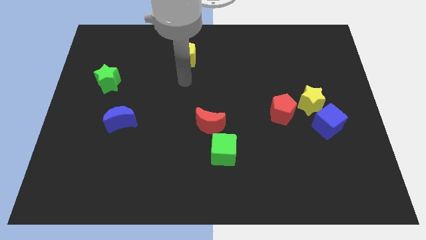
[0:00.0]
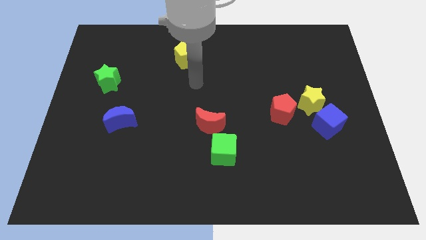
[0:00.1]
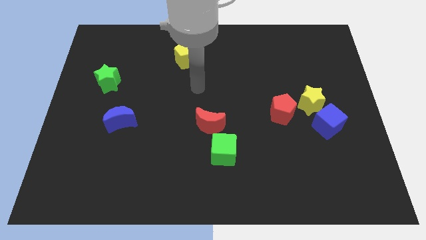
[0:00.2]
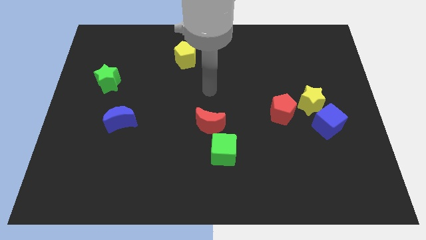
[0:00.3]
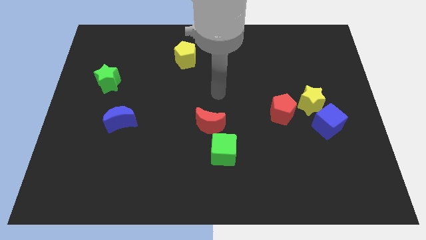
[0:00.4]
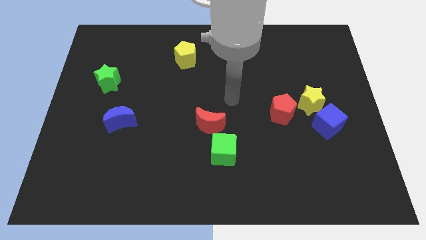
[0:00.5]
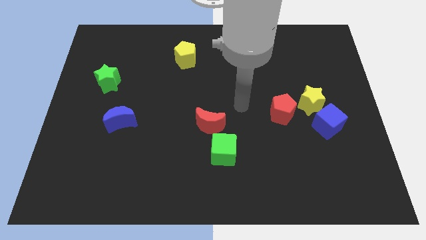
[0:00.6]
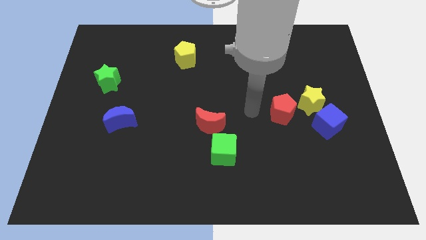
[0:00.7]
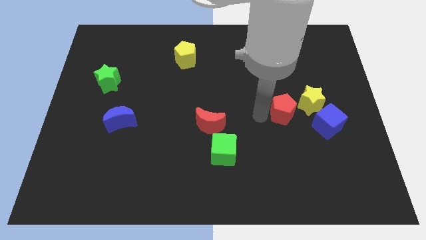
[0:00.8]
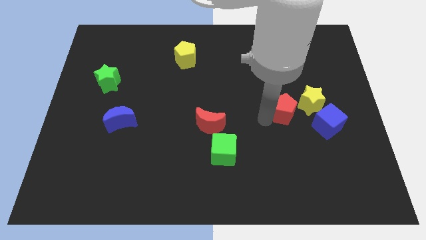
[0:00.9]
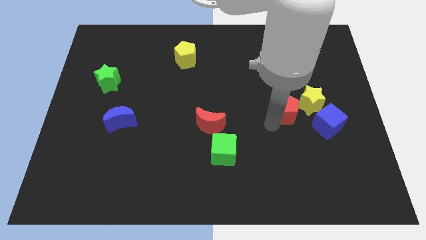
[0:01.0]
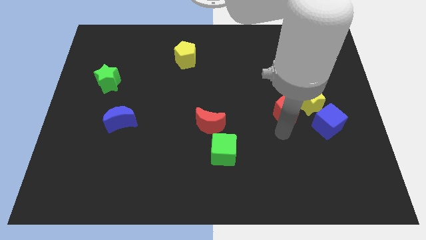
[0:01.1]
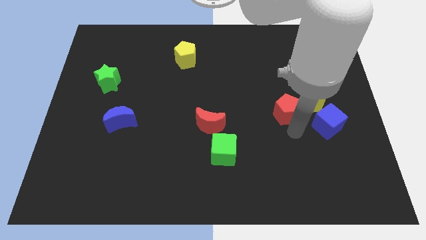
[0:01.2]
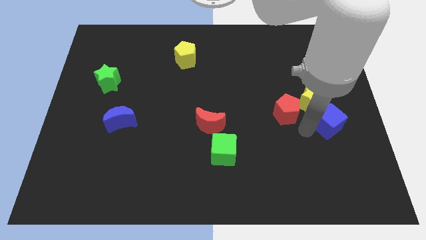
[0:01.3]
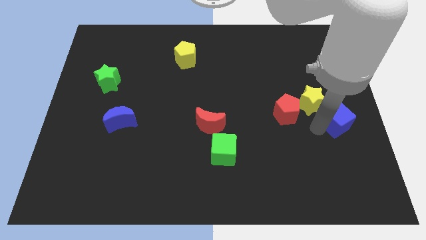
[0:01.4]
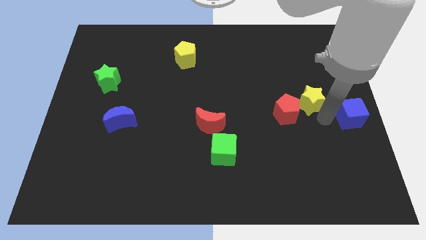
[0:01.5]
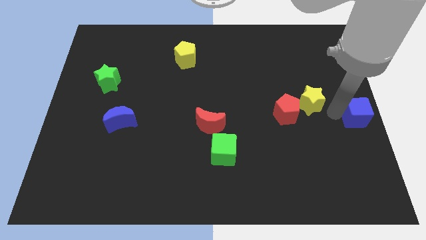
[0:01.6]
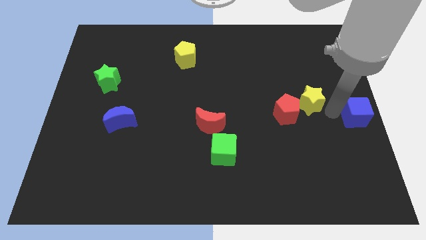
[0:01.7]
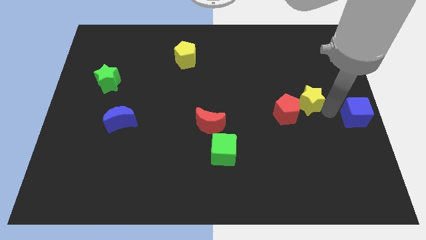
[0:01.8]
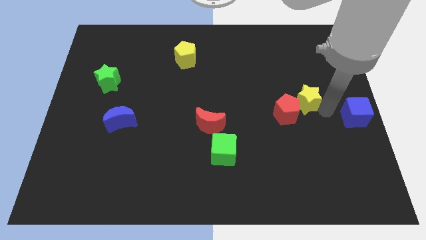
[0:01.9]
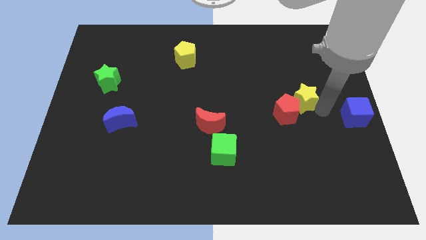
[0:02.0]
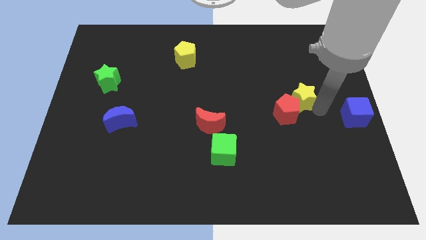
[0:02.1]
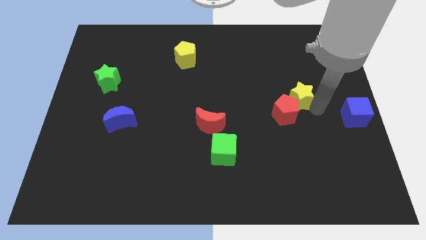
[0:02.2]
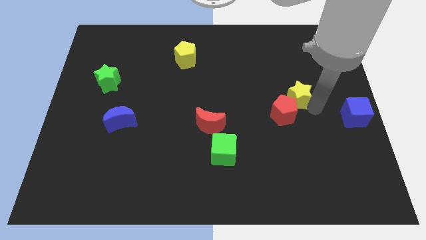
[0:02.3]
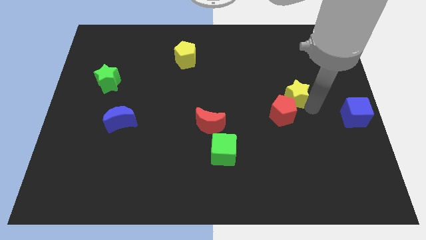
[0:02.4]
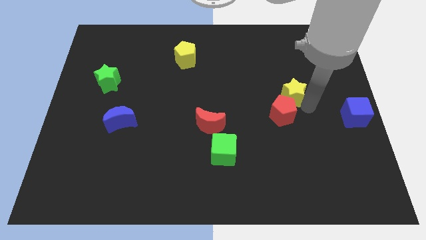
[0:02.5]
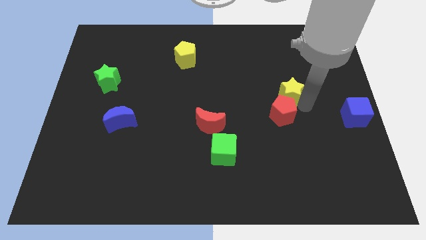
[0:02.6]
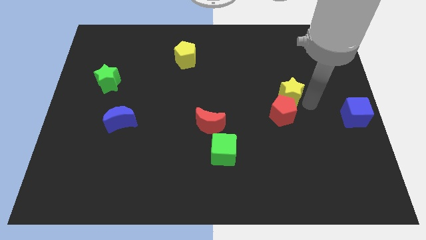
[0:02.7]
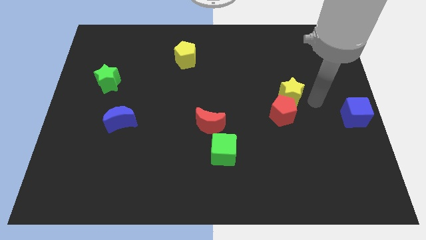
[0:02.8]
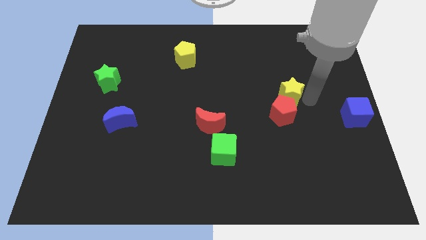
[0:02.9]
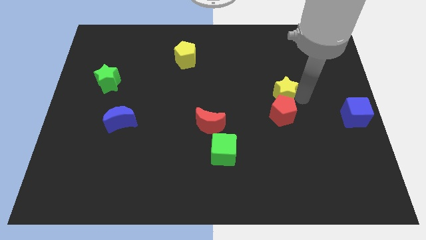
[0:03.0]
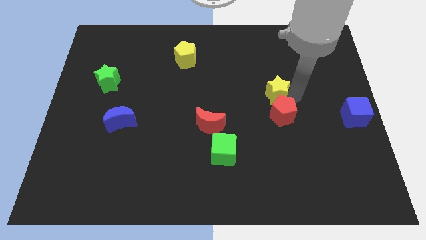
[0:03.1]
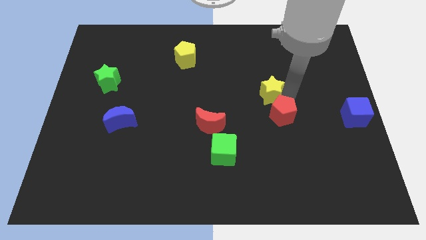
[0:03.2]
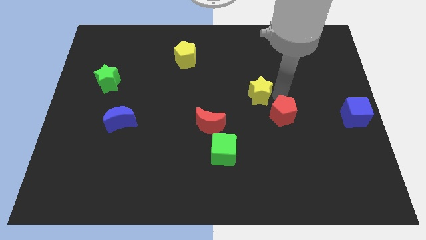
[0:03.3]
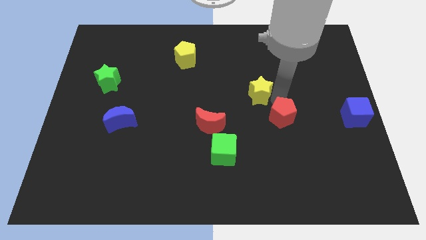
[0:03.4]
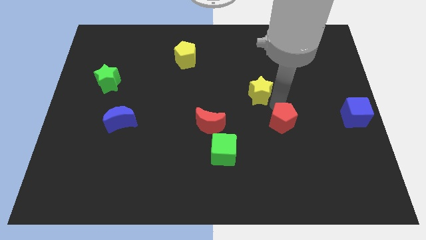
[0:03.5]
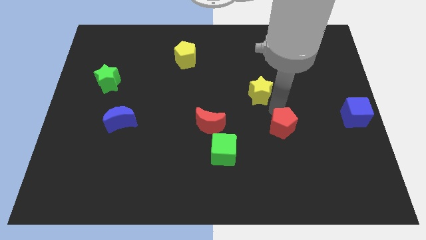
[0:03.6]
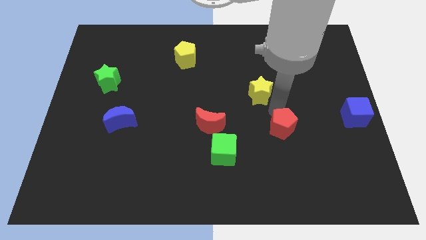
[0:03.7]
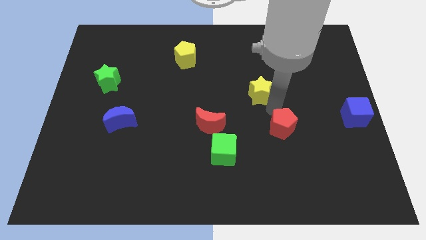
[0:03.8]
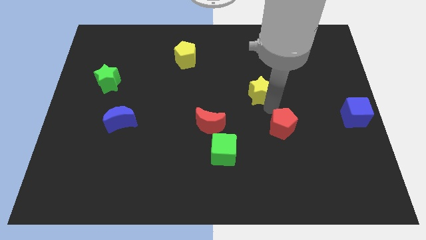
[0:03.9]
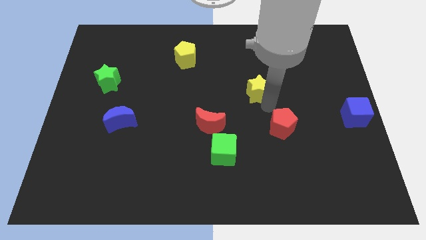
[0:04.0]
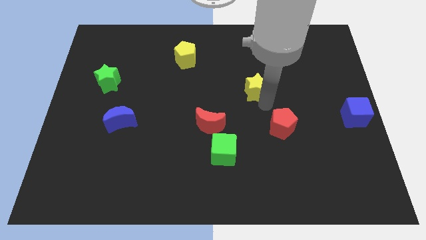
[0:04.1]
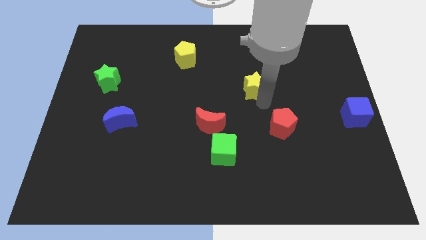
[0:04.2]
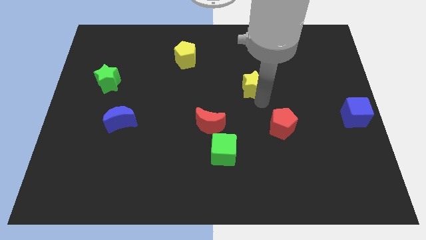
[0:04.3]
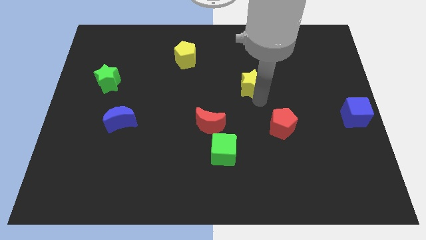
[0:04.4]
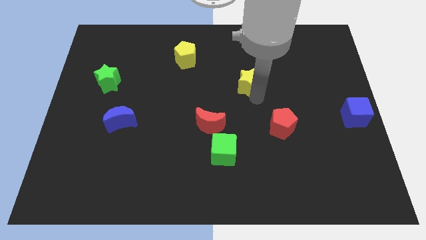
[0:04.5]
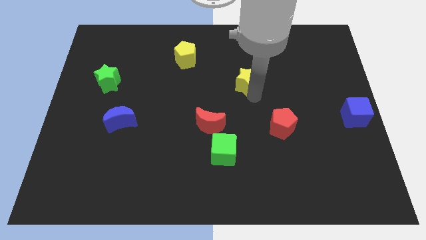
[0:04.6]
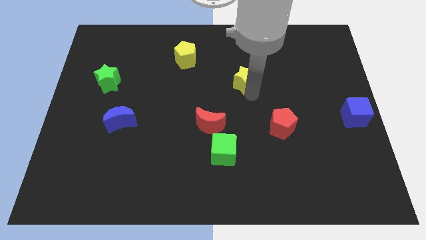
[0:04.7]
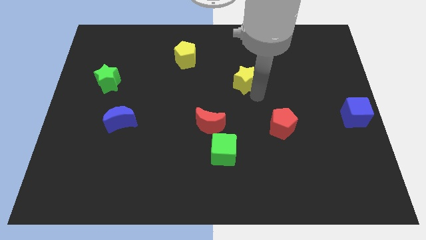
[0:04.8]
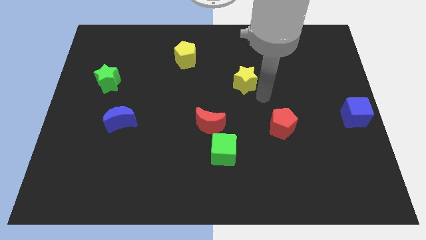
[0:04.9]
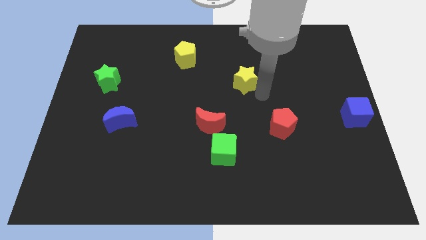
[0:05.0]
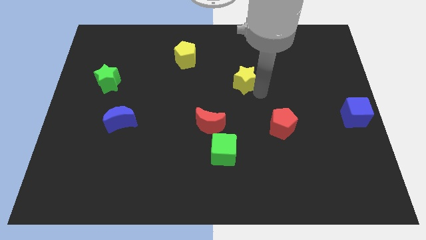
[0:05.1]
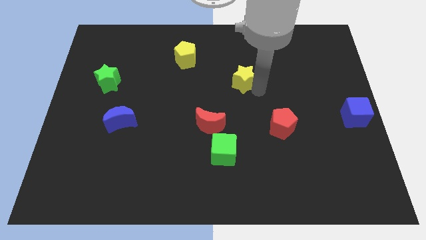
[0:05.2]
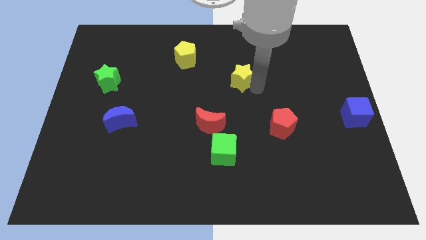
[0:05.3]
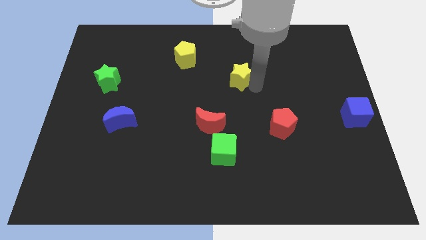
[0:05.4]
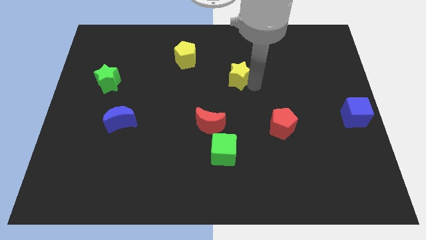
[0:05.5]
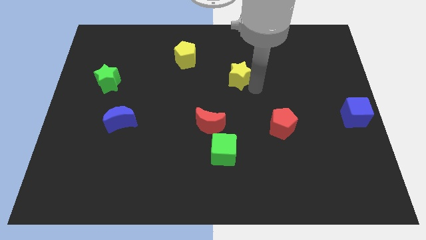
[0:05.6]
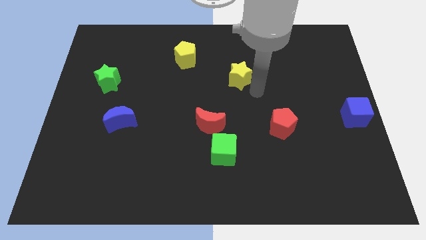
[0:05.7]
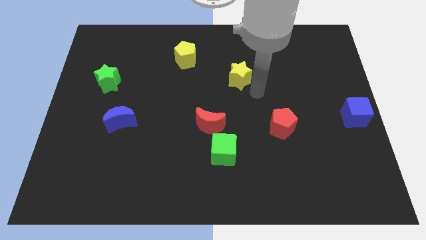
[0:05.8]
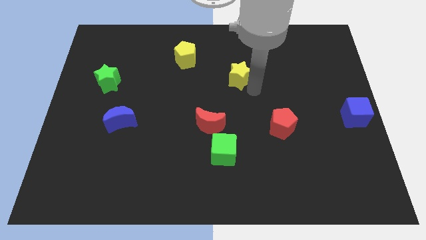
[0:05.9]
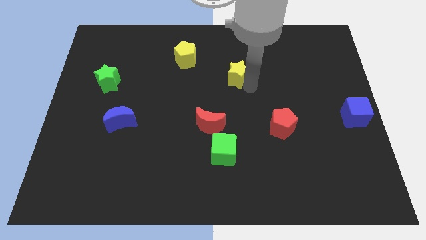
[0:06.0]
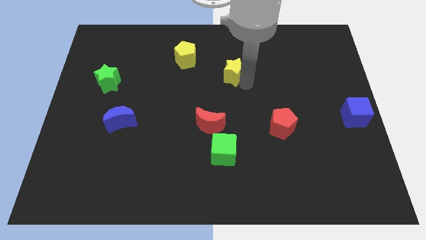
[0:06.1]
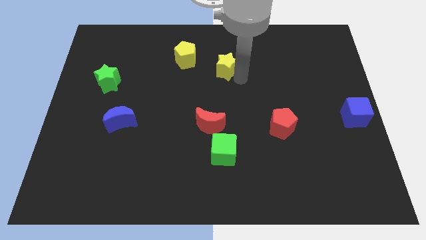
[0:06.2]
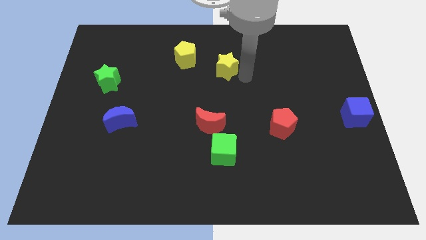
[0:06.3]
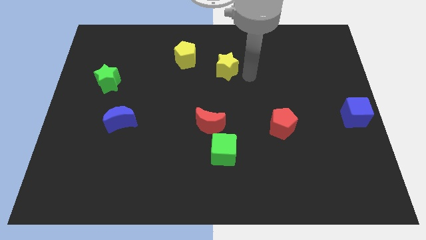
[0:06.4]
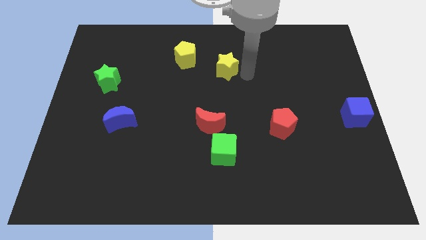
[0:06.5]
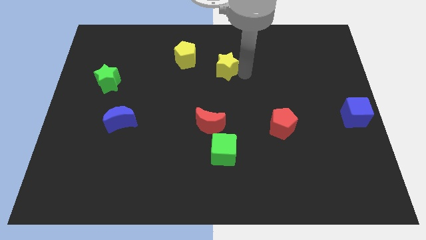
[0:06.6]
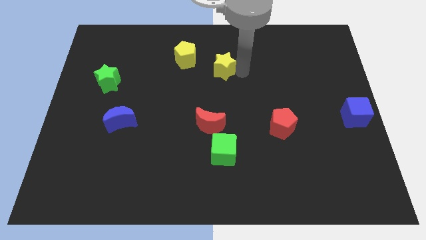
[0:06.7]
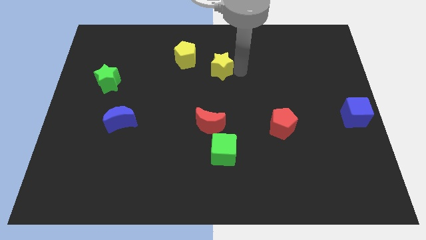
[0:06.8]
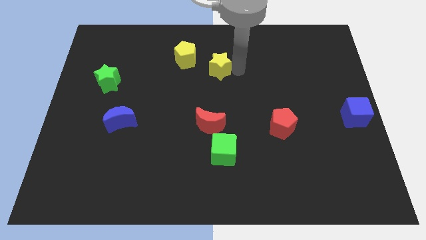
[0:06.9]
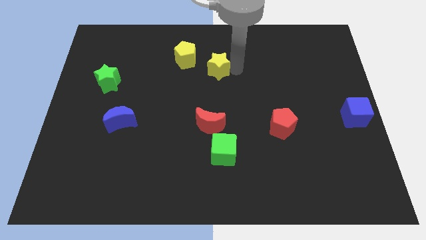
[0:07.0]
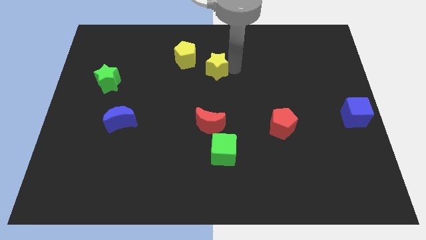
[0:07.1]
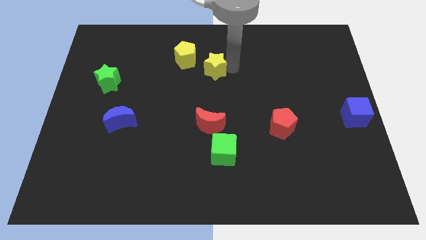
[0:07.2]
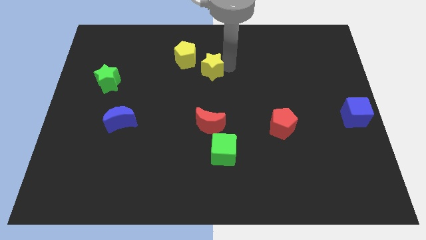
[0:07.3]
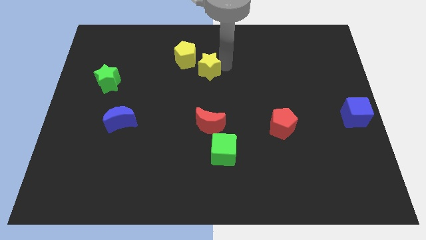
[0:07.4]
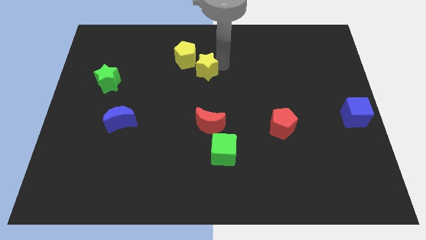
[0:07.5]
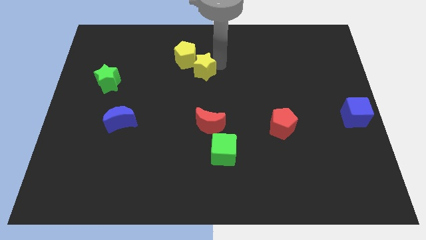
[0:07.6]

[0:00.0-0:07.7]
push the yellow star next to the yellow pentagon
